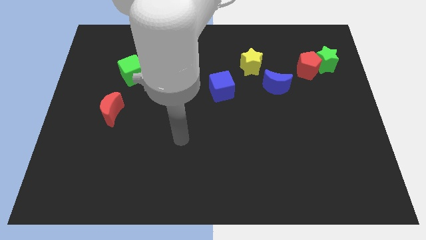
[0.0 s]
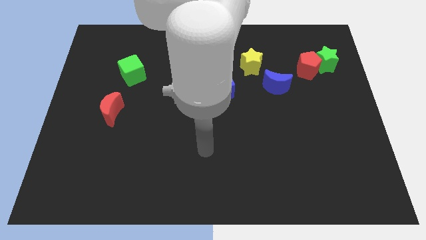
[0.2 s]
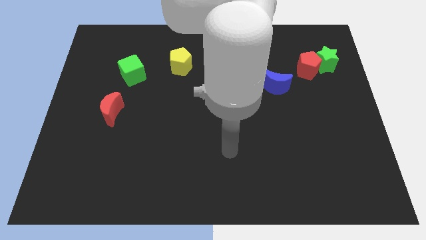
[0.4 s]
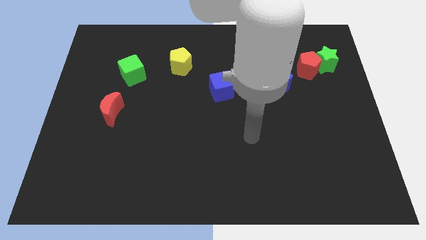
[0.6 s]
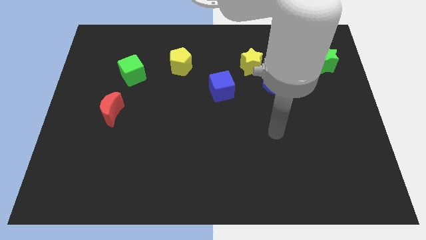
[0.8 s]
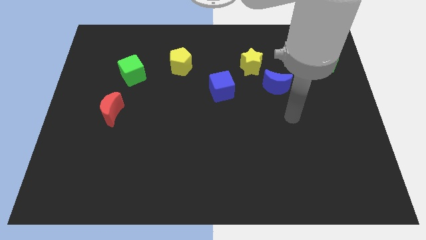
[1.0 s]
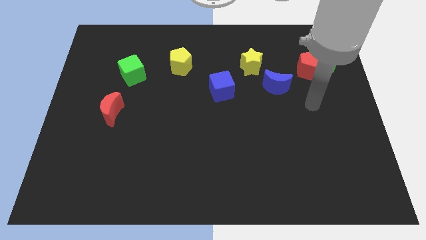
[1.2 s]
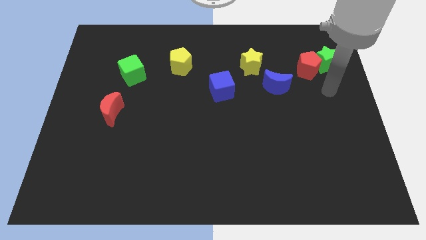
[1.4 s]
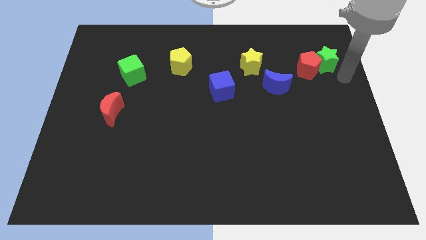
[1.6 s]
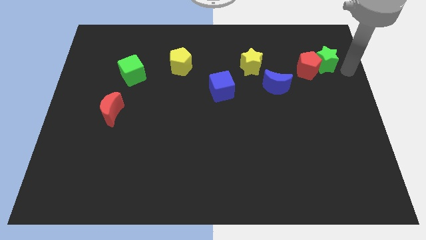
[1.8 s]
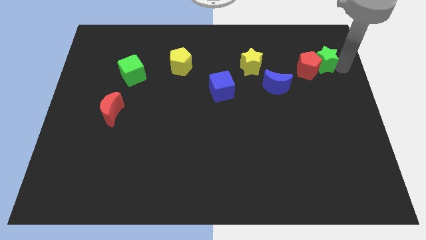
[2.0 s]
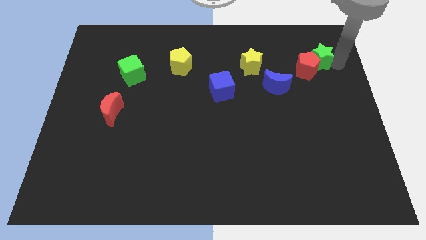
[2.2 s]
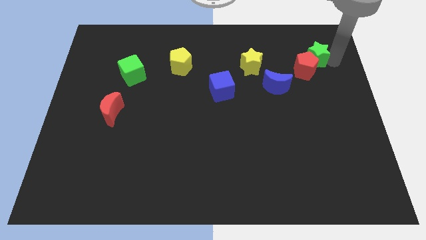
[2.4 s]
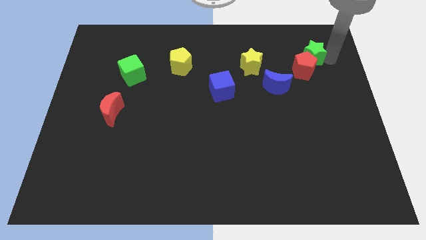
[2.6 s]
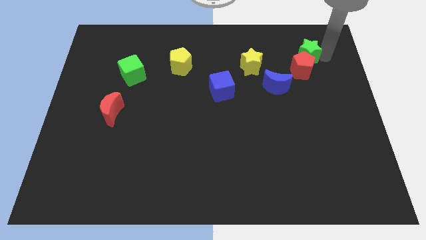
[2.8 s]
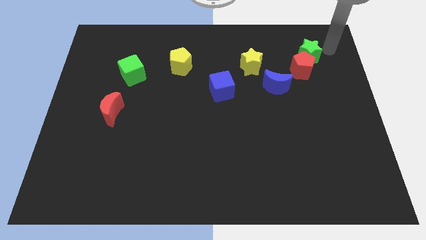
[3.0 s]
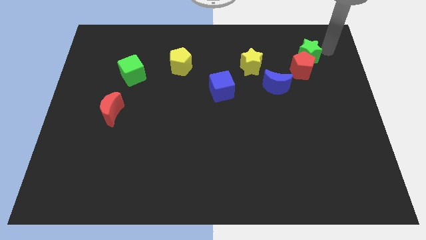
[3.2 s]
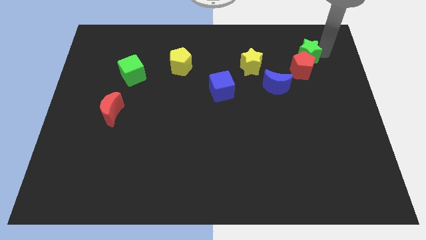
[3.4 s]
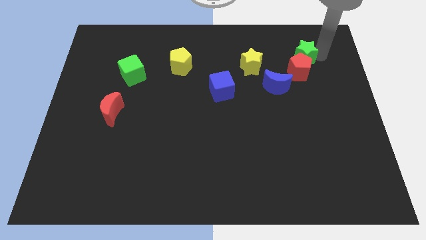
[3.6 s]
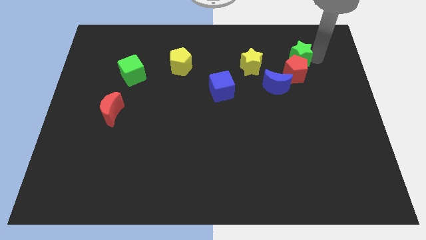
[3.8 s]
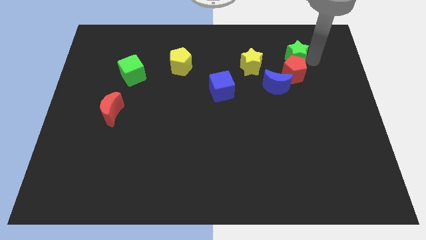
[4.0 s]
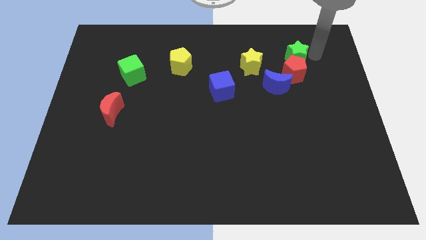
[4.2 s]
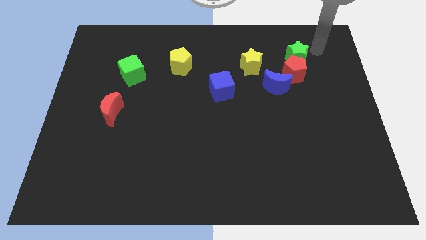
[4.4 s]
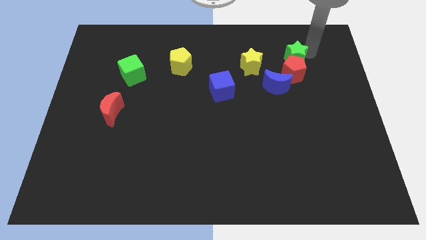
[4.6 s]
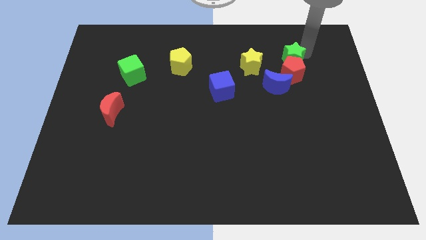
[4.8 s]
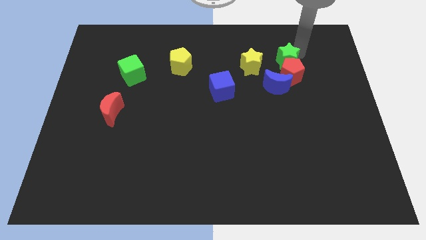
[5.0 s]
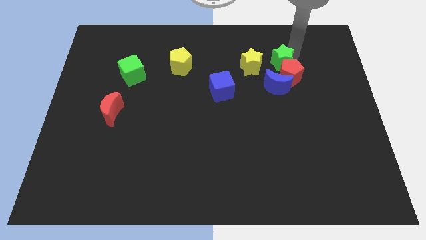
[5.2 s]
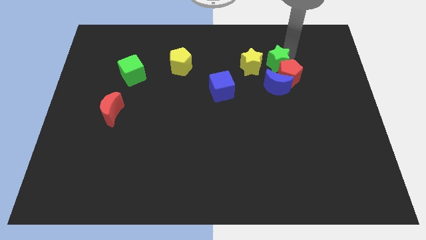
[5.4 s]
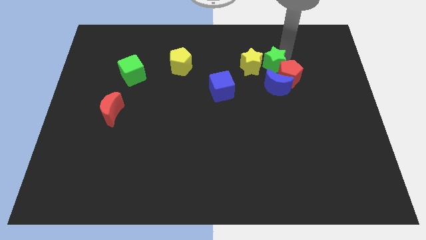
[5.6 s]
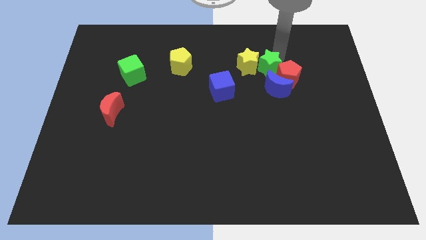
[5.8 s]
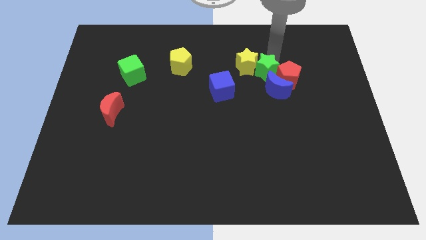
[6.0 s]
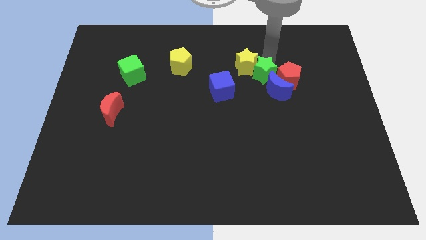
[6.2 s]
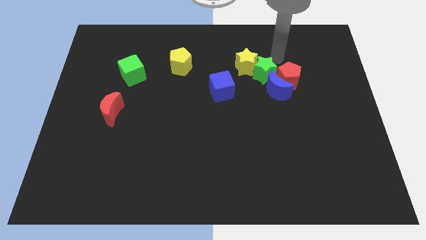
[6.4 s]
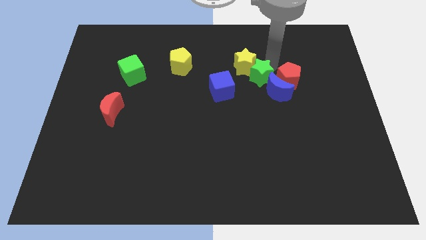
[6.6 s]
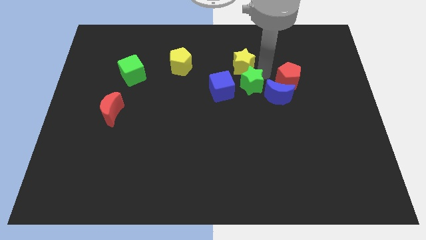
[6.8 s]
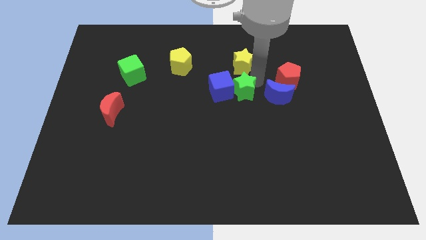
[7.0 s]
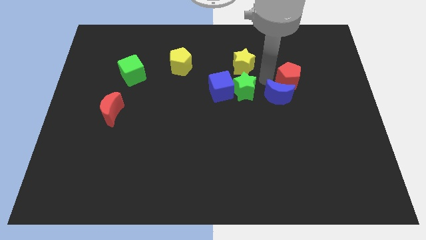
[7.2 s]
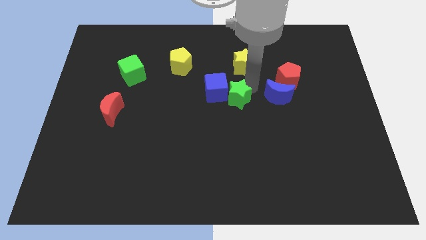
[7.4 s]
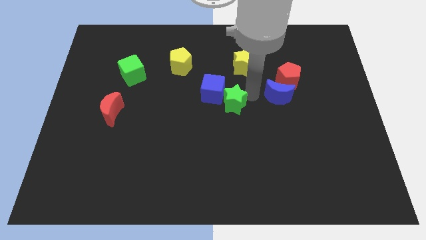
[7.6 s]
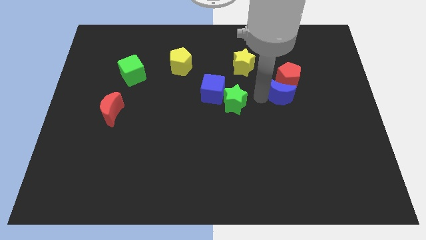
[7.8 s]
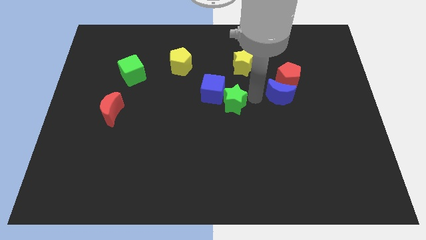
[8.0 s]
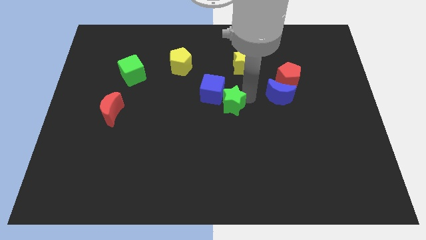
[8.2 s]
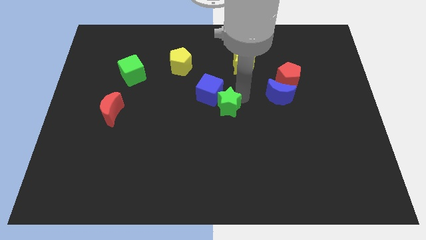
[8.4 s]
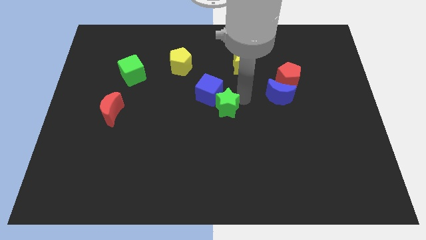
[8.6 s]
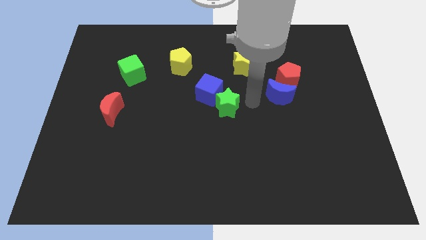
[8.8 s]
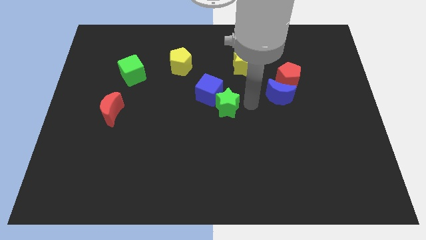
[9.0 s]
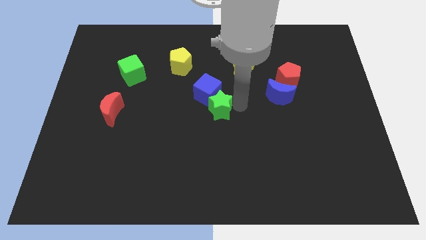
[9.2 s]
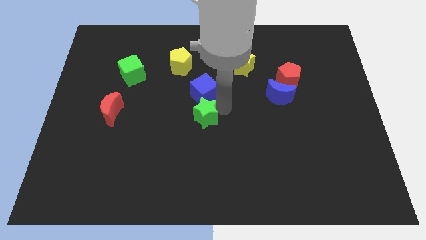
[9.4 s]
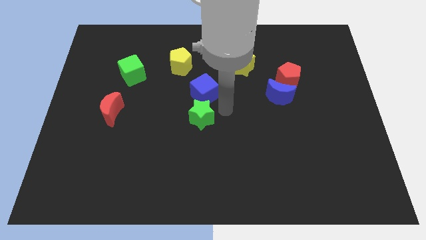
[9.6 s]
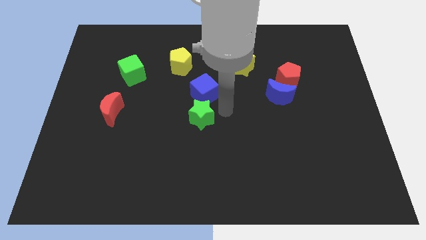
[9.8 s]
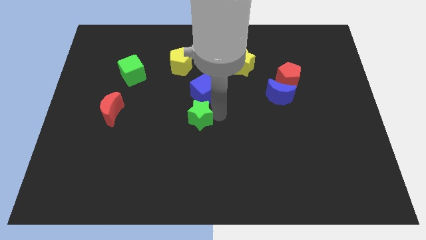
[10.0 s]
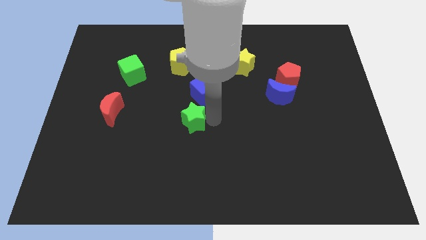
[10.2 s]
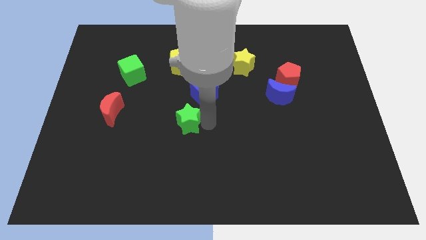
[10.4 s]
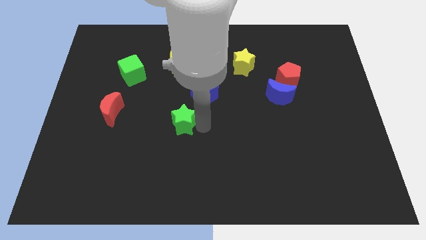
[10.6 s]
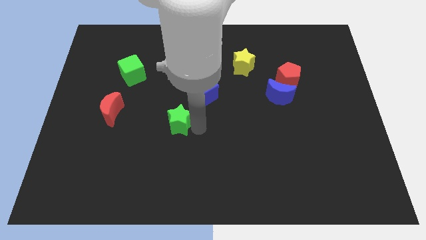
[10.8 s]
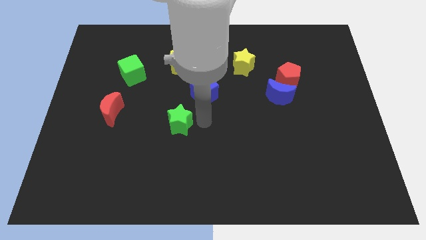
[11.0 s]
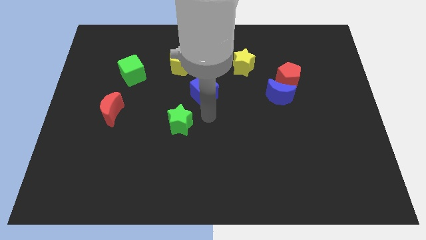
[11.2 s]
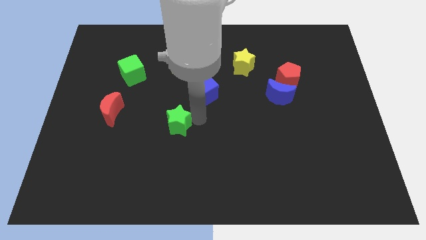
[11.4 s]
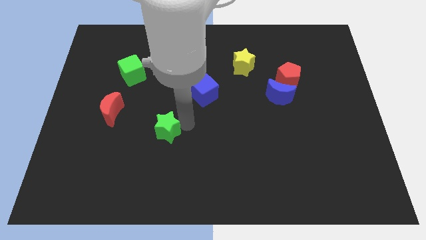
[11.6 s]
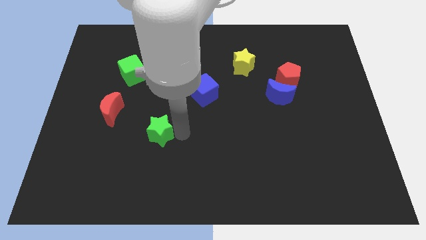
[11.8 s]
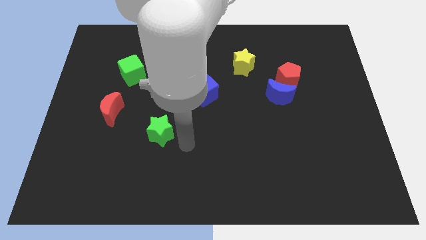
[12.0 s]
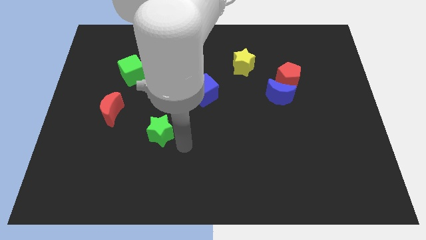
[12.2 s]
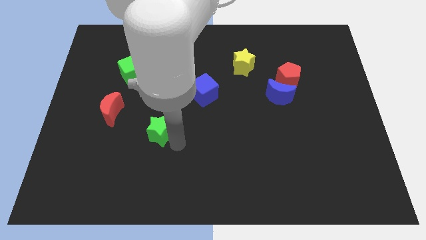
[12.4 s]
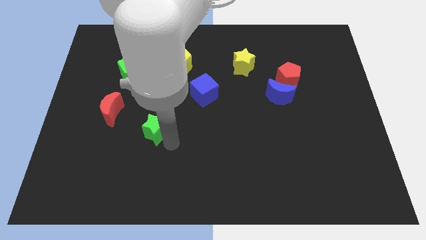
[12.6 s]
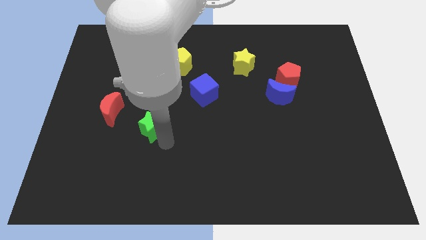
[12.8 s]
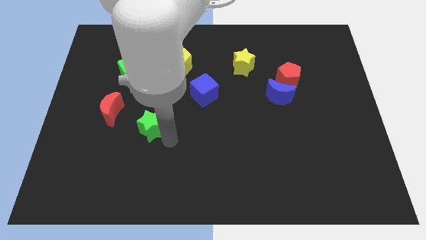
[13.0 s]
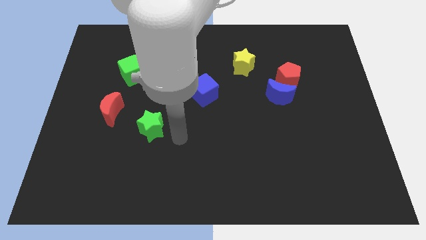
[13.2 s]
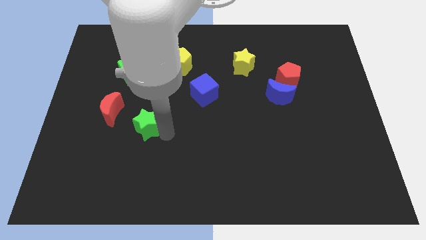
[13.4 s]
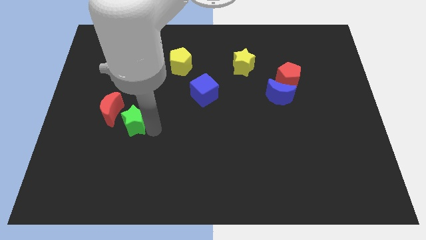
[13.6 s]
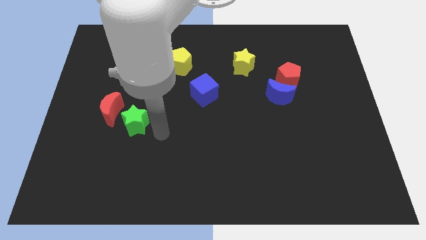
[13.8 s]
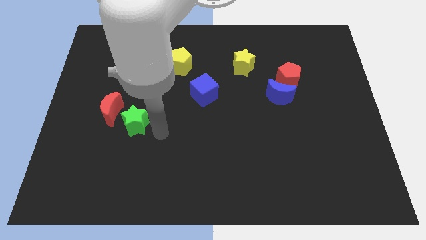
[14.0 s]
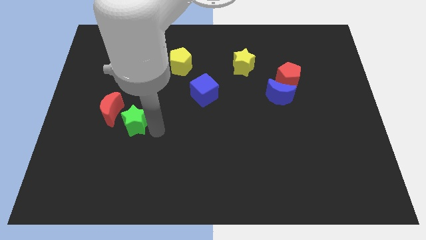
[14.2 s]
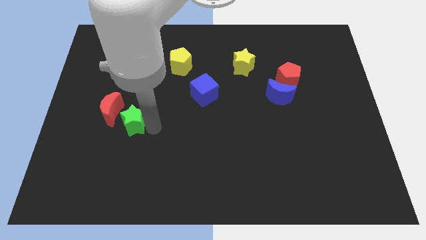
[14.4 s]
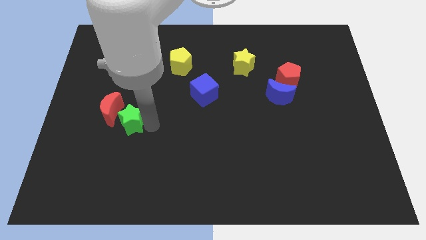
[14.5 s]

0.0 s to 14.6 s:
slide the green star below the green cube

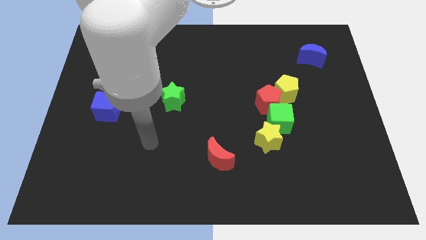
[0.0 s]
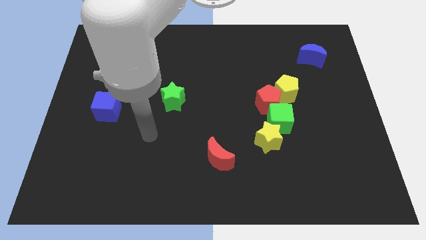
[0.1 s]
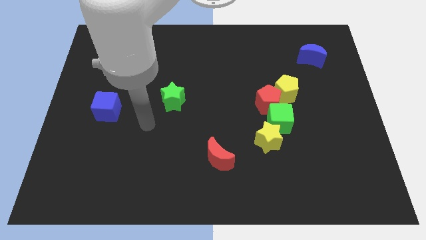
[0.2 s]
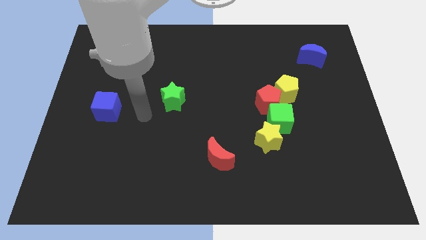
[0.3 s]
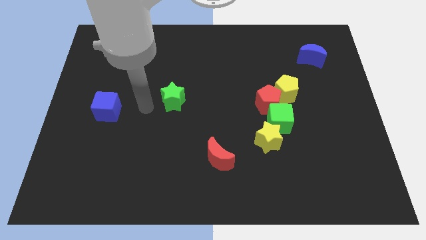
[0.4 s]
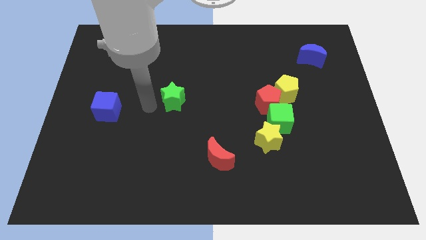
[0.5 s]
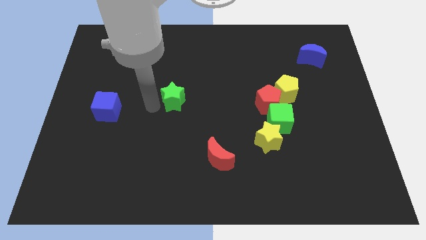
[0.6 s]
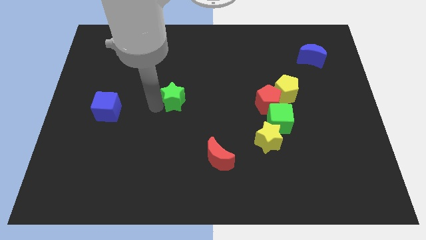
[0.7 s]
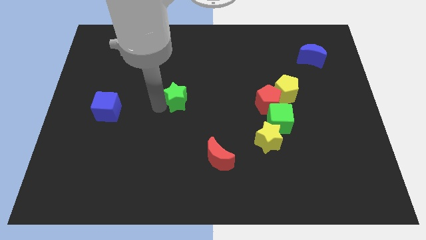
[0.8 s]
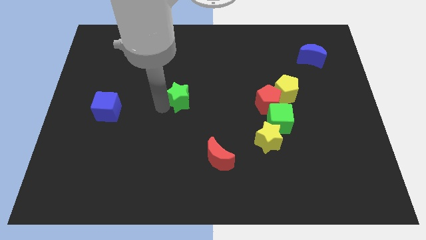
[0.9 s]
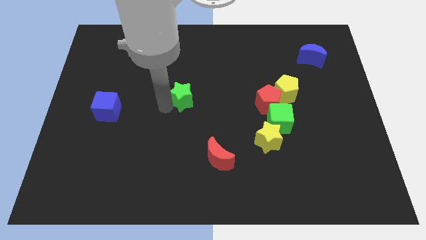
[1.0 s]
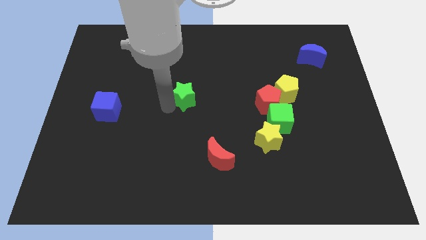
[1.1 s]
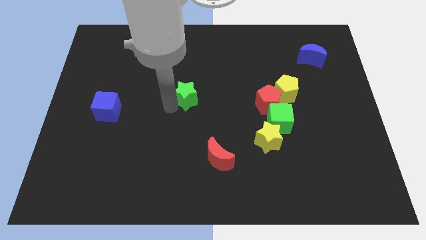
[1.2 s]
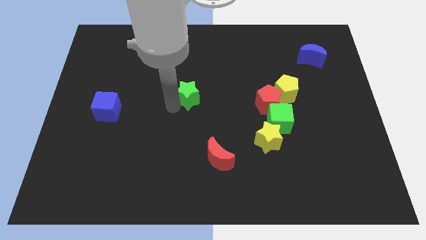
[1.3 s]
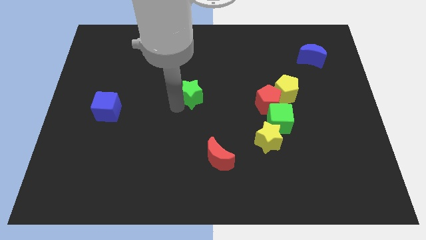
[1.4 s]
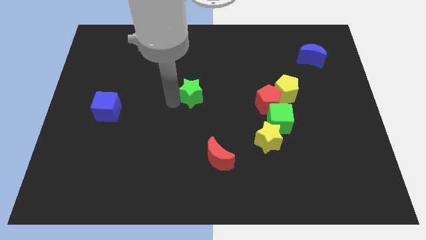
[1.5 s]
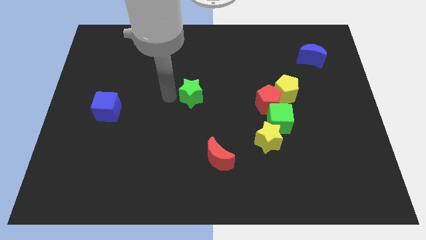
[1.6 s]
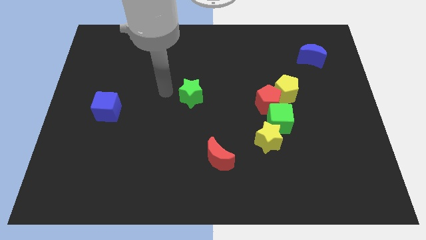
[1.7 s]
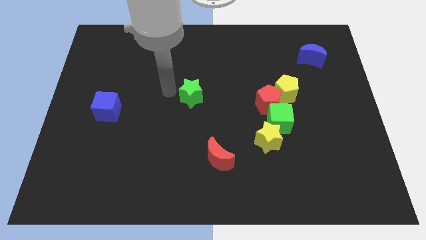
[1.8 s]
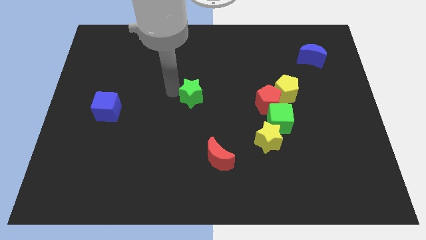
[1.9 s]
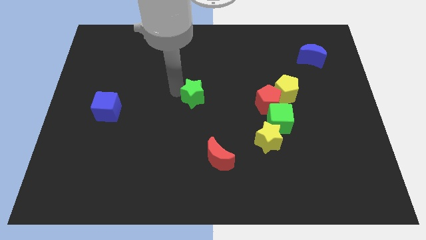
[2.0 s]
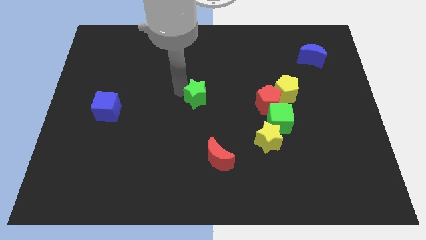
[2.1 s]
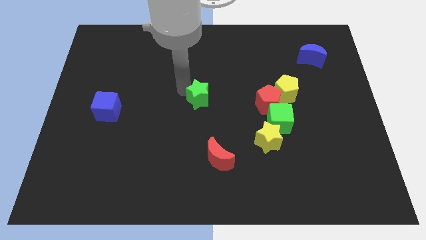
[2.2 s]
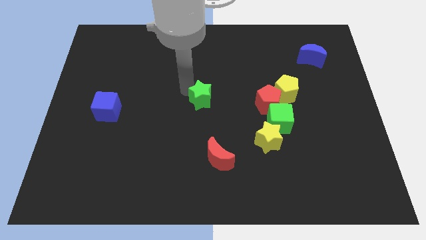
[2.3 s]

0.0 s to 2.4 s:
move the green star left of the red pentagon
